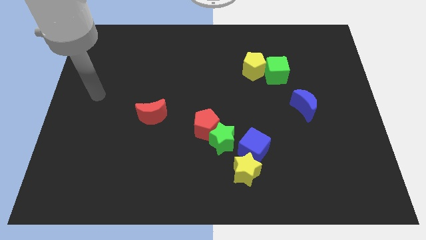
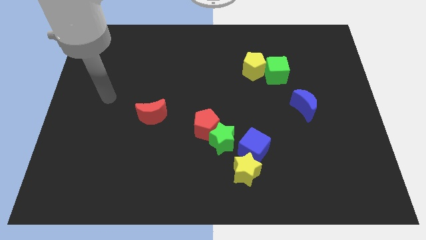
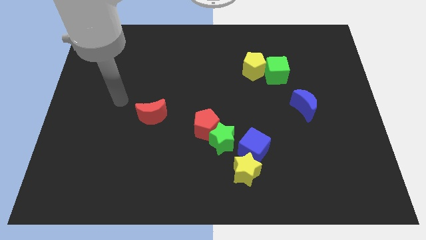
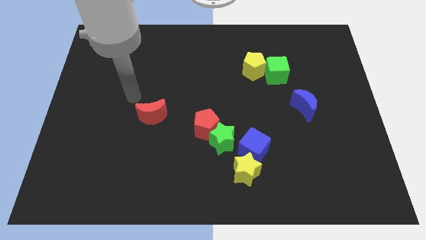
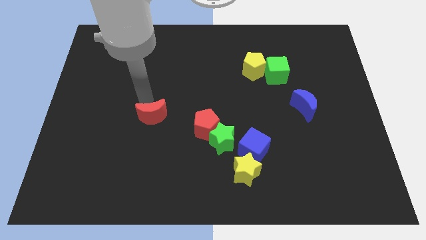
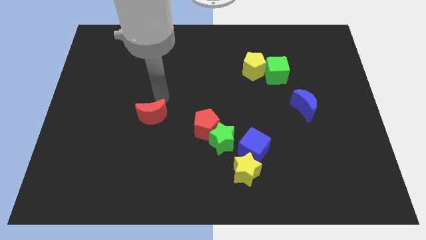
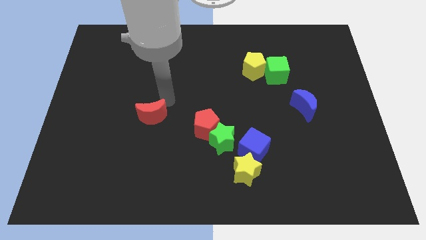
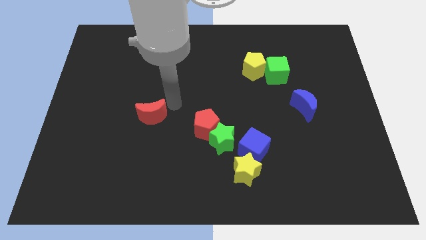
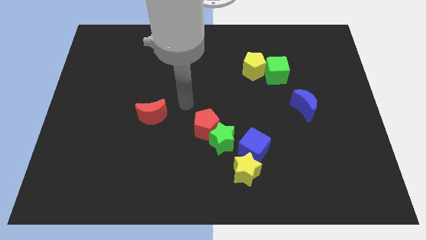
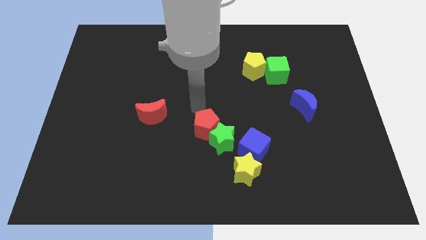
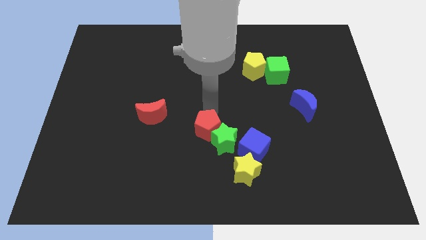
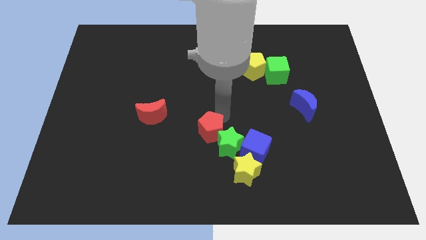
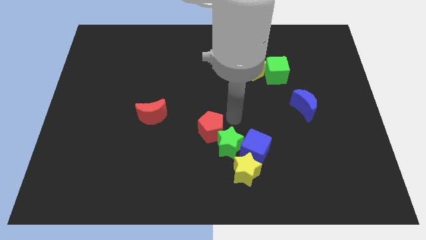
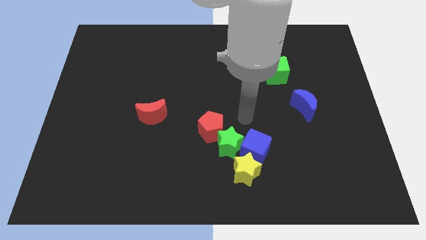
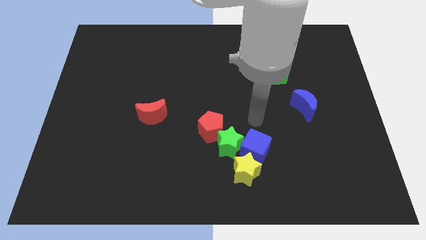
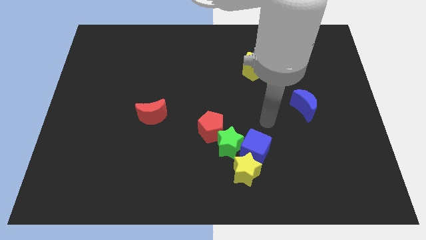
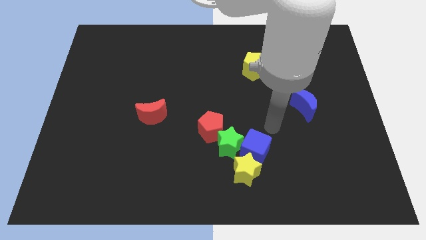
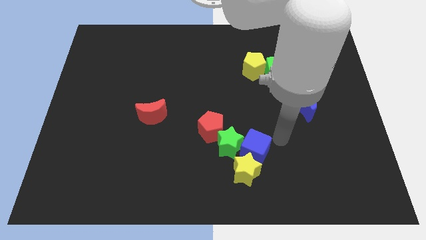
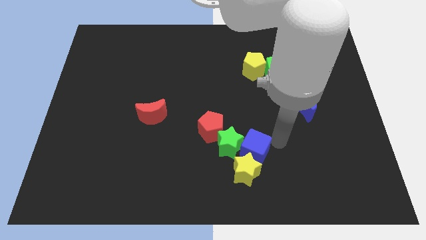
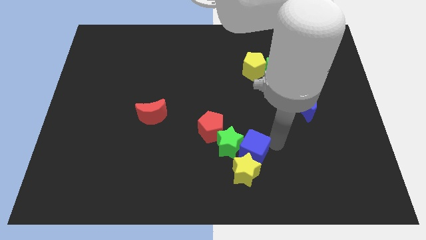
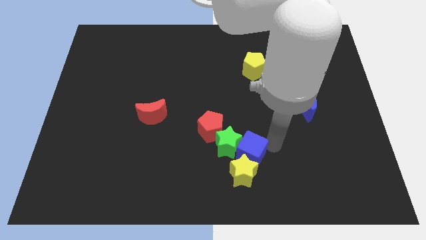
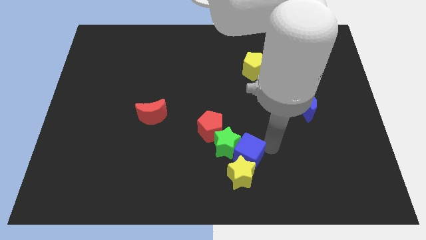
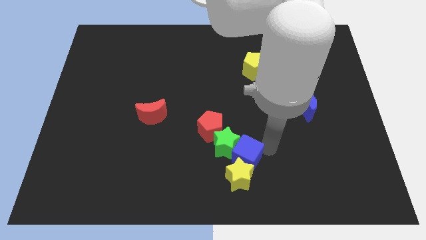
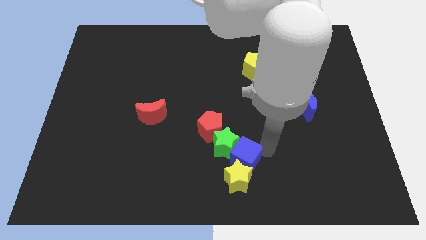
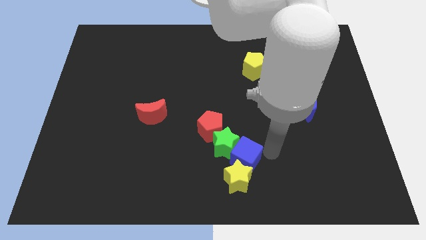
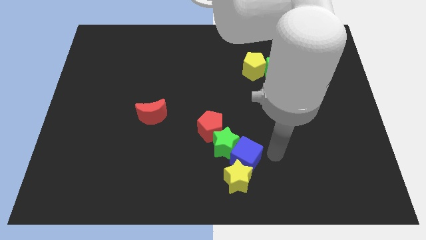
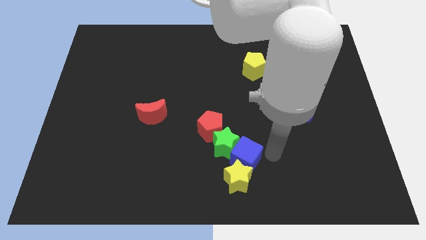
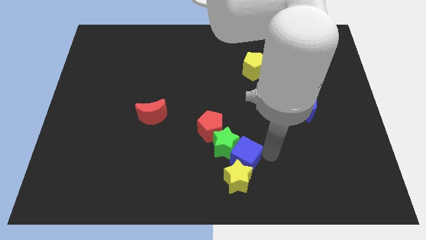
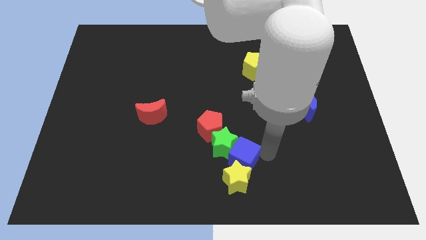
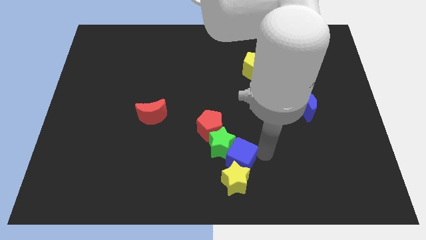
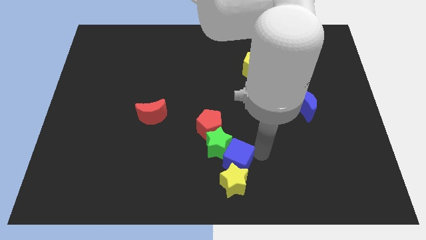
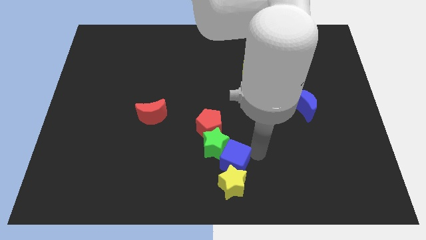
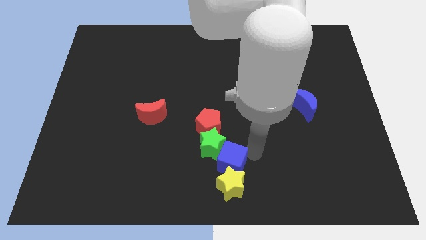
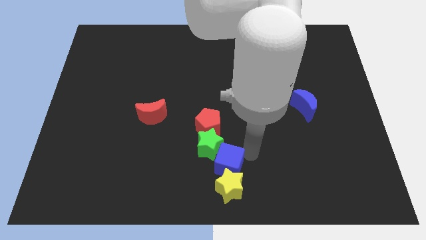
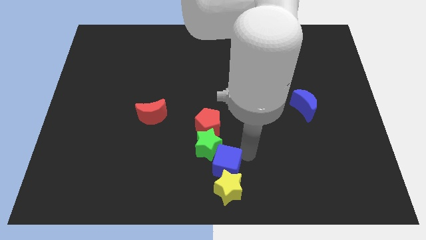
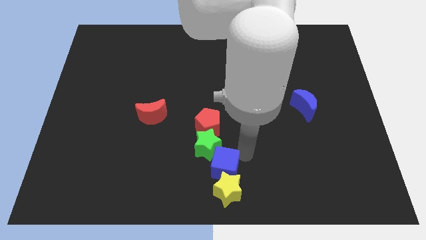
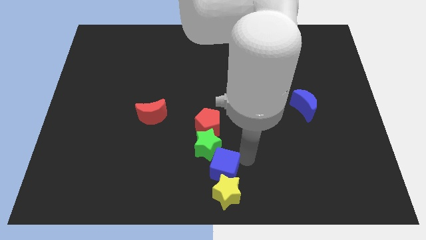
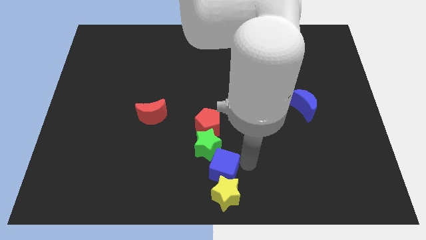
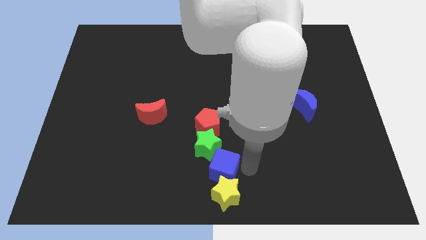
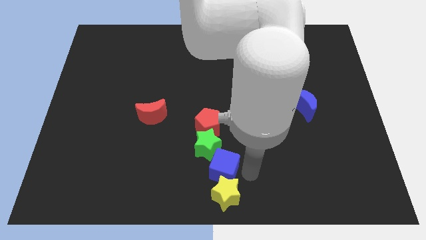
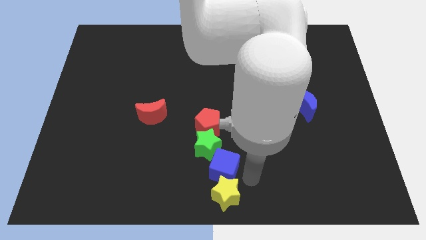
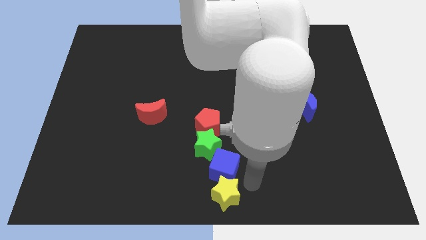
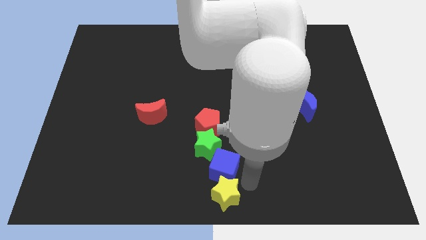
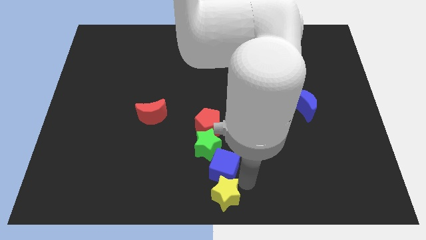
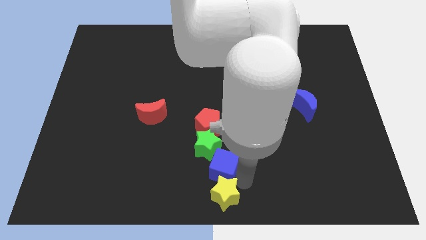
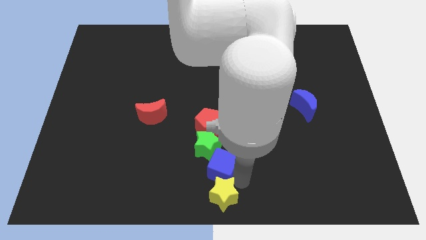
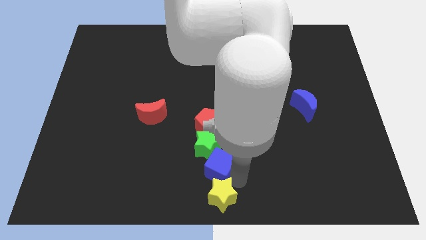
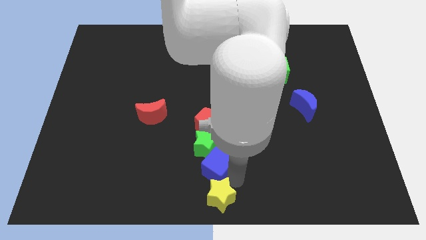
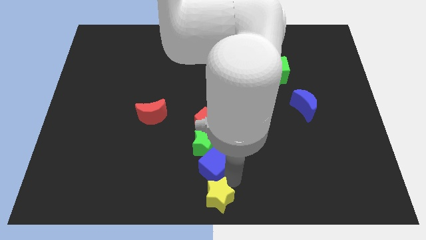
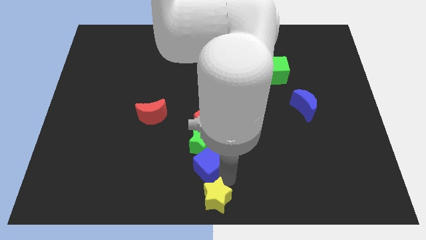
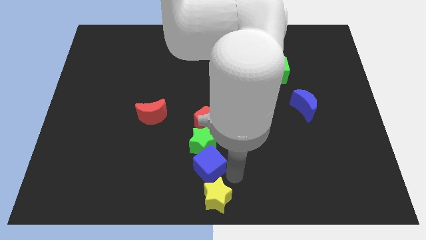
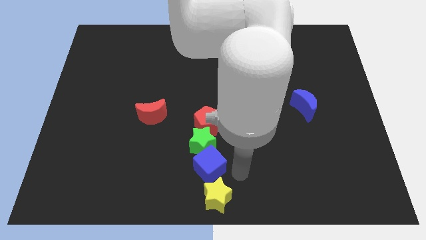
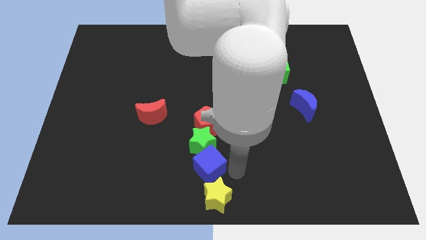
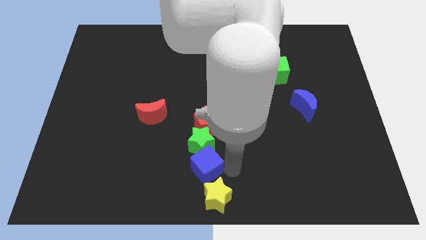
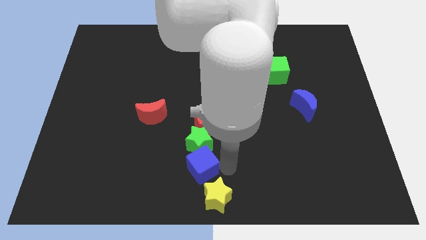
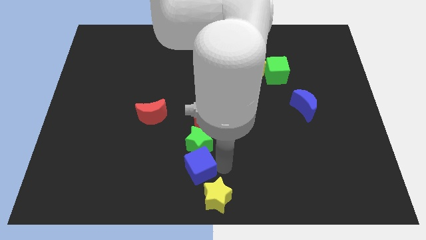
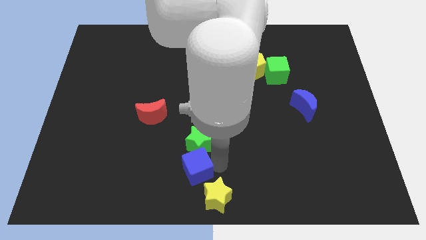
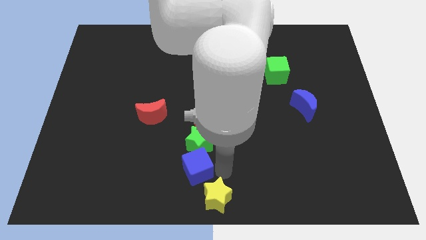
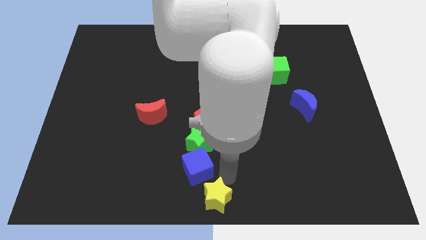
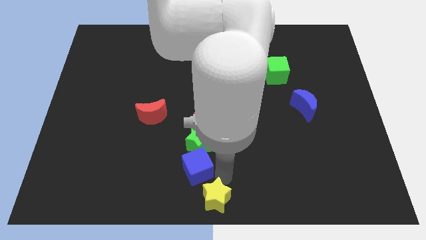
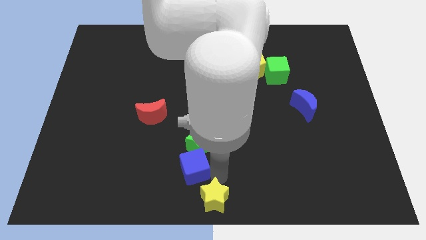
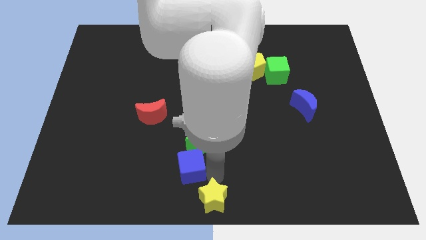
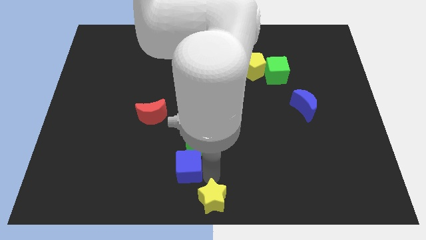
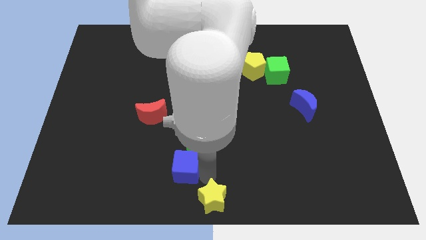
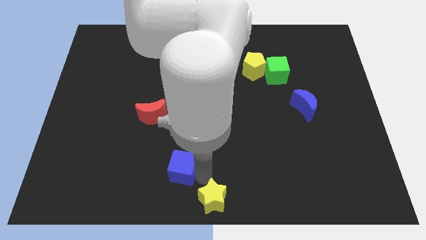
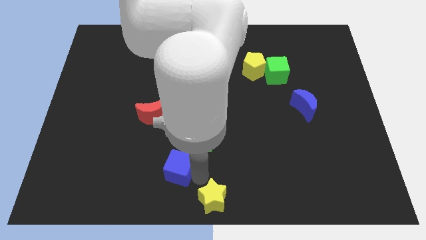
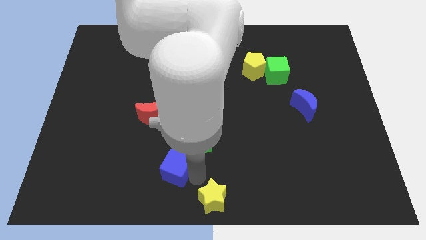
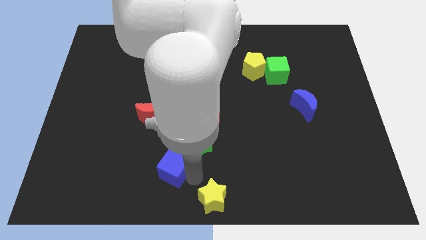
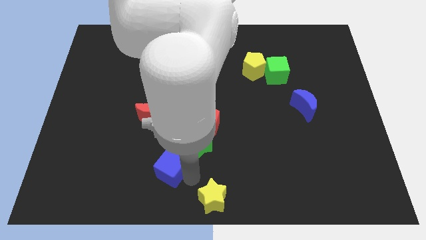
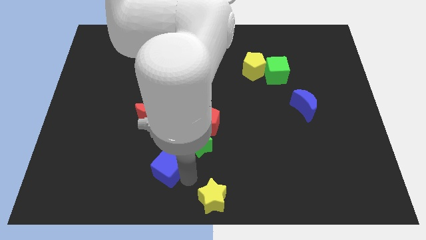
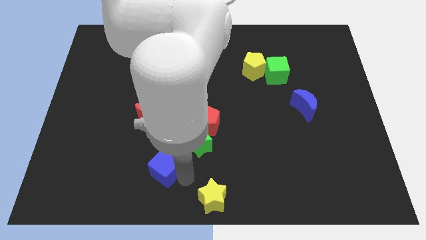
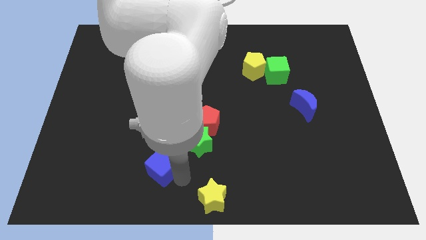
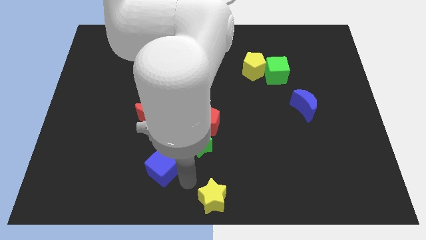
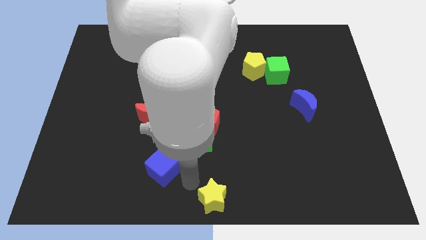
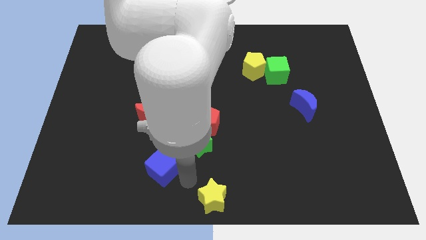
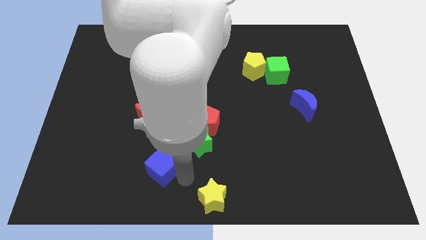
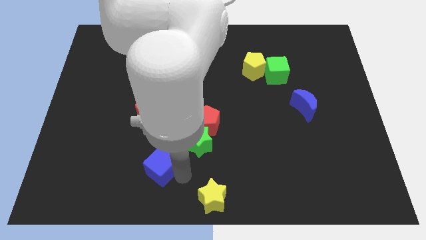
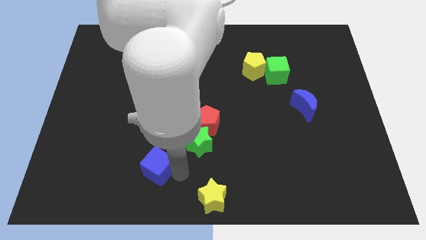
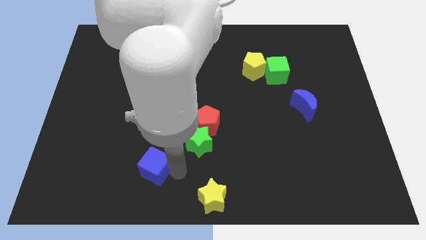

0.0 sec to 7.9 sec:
push the blue cube left

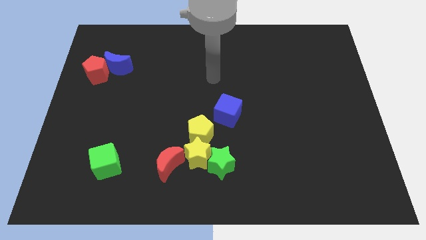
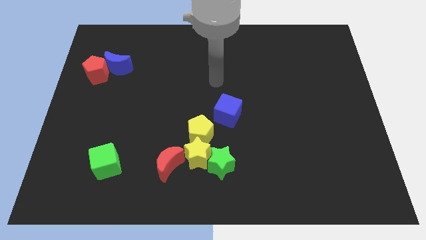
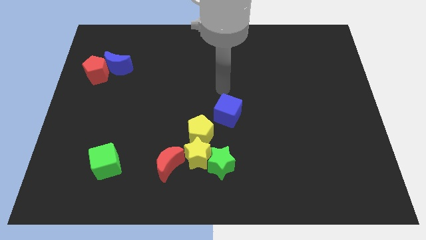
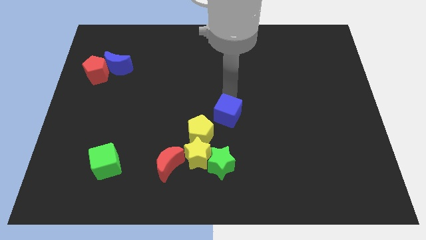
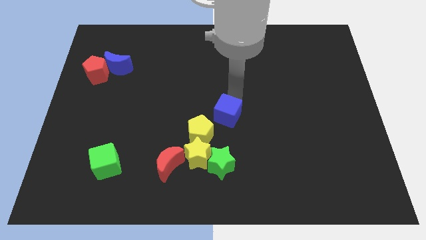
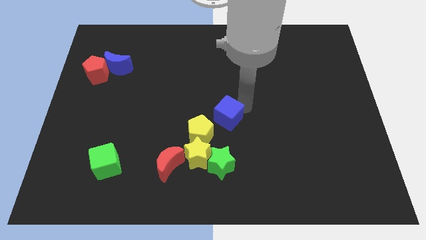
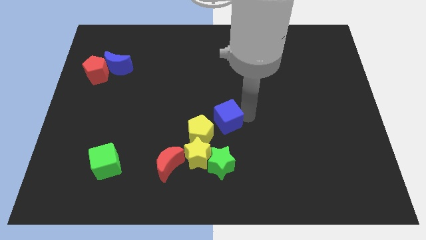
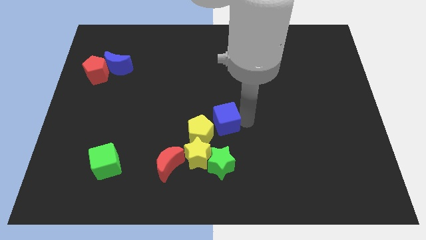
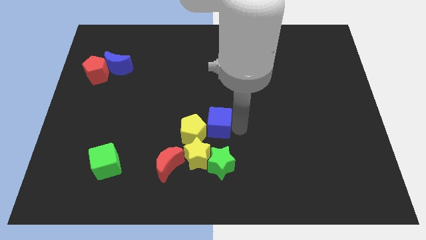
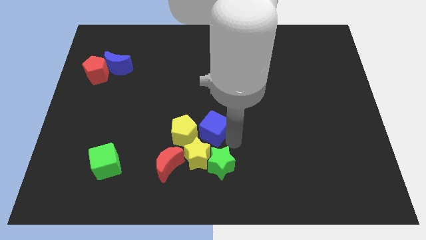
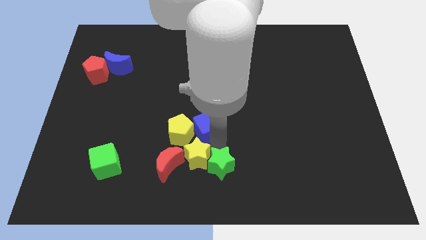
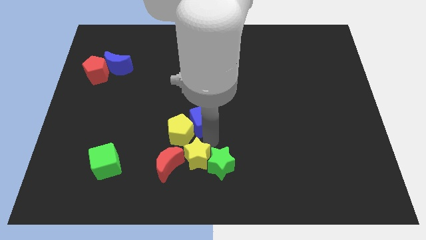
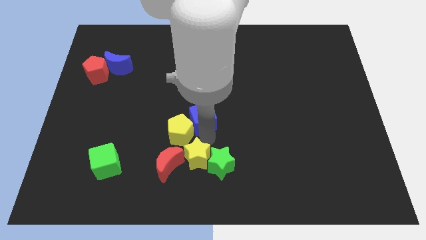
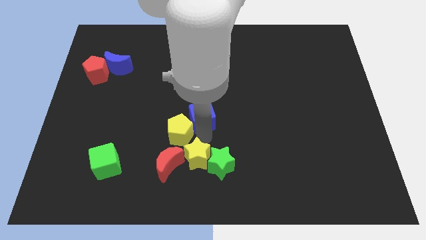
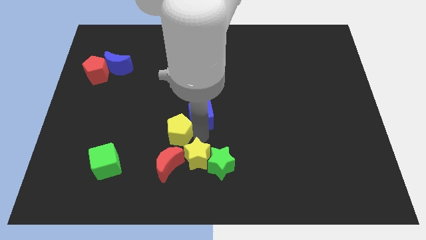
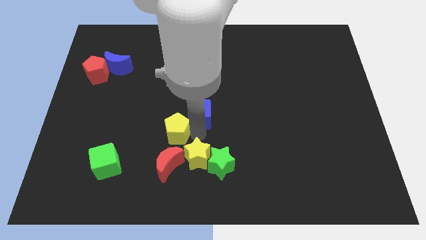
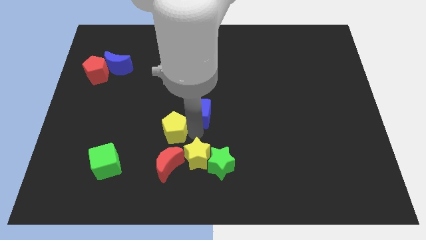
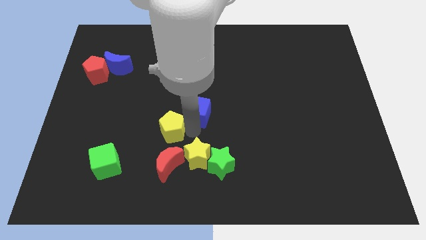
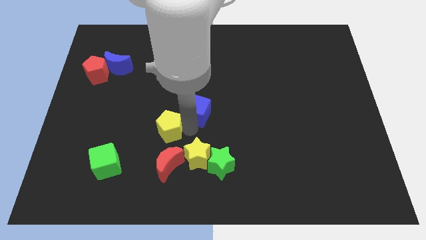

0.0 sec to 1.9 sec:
slide the yellow pentagon somewhat left
